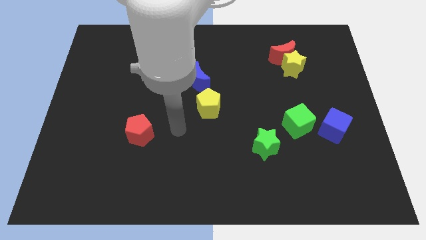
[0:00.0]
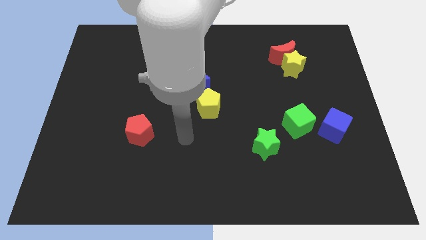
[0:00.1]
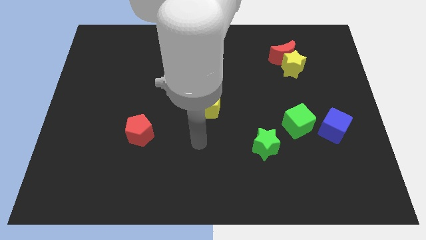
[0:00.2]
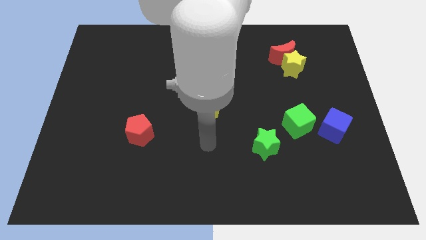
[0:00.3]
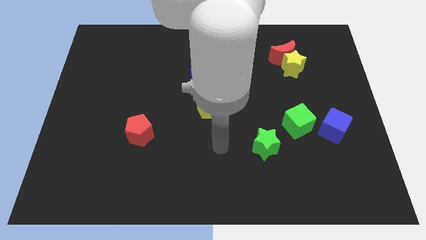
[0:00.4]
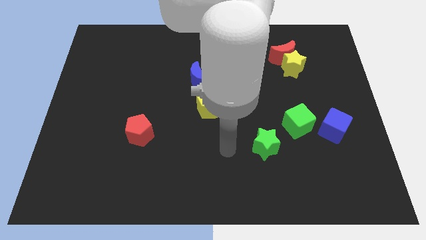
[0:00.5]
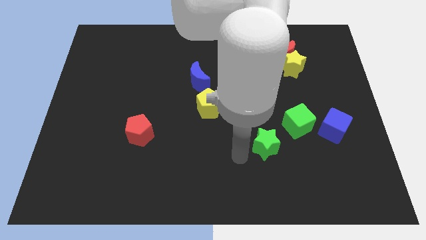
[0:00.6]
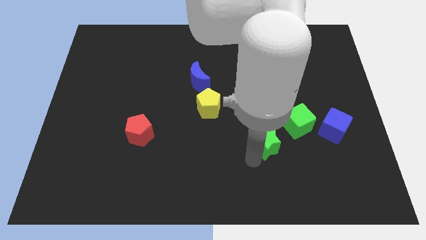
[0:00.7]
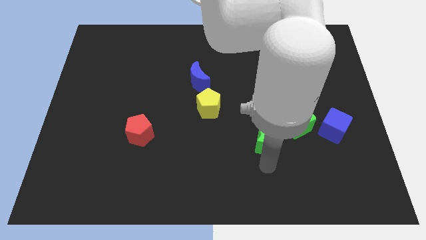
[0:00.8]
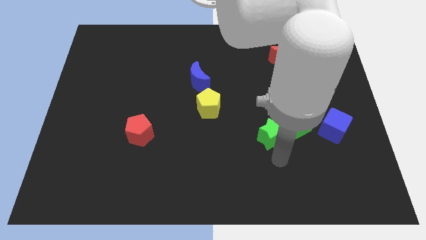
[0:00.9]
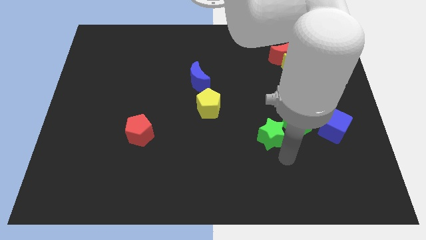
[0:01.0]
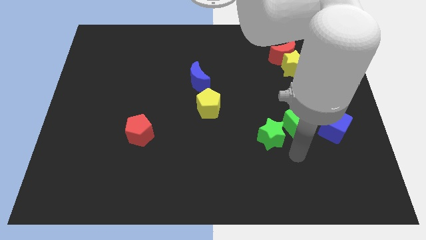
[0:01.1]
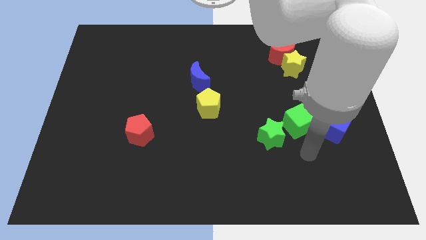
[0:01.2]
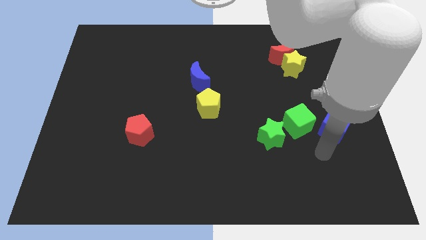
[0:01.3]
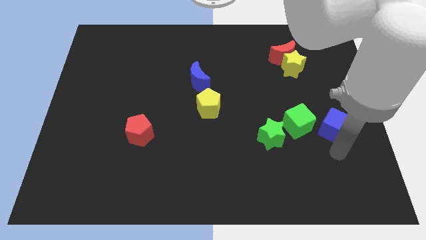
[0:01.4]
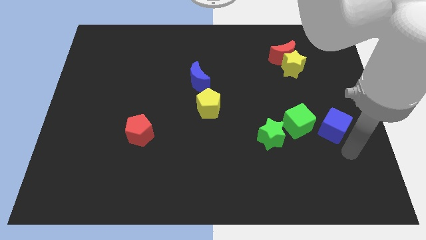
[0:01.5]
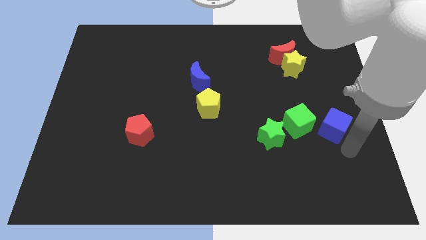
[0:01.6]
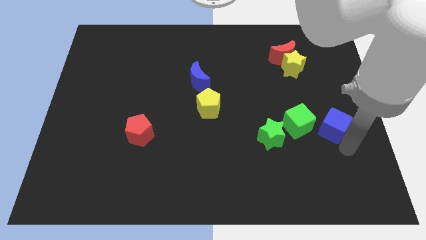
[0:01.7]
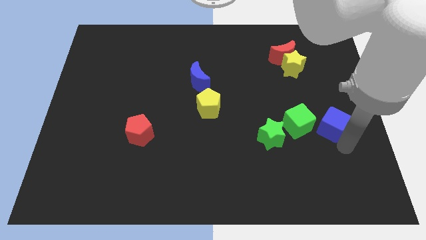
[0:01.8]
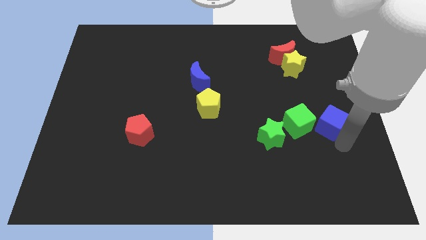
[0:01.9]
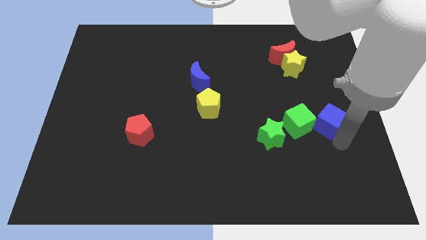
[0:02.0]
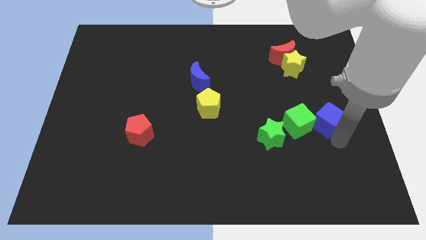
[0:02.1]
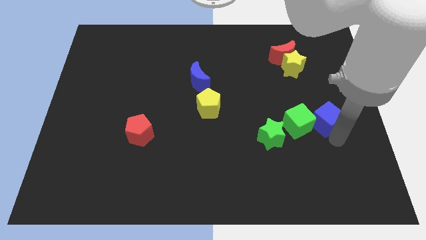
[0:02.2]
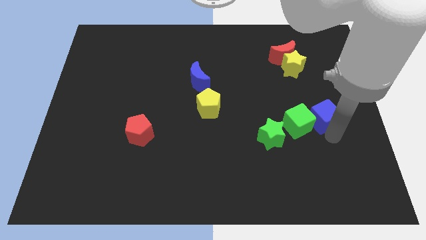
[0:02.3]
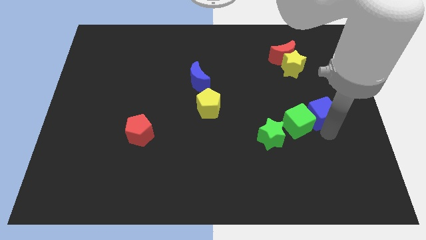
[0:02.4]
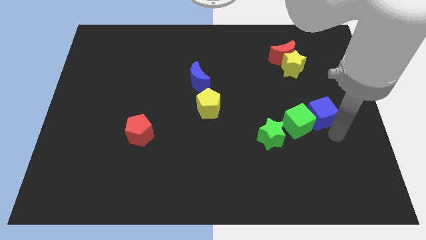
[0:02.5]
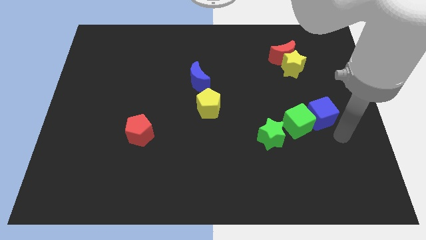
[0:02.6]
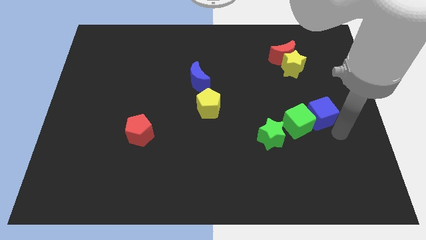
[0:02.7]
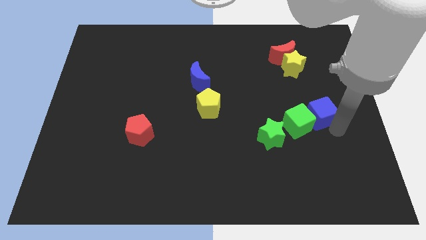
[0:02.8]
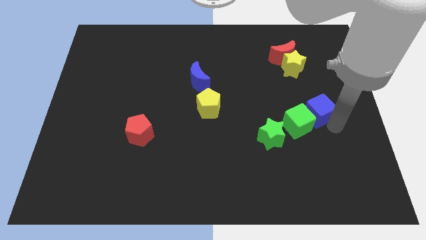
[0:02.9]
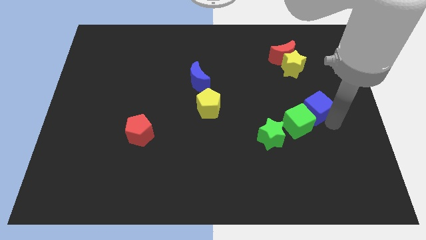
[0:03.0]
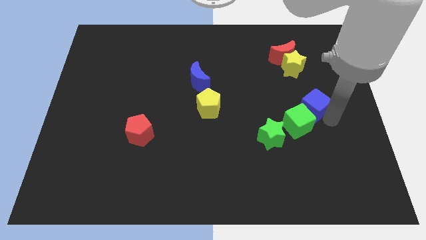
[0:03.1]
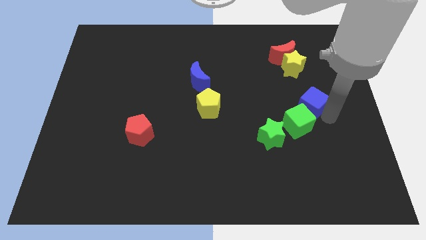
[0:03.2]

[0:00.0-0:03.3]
slide the blue cube upwards and then left a little bit

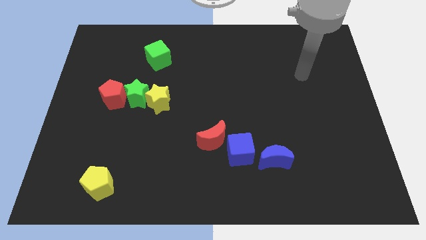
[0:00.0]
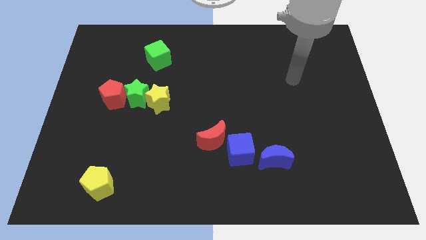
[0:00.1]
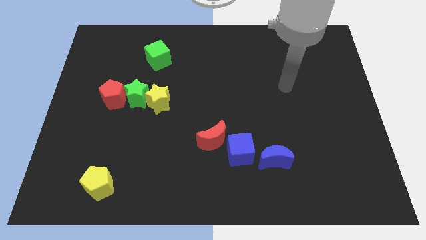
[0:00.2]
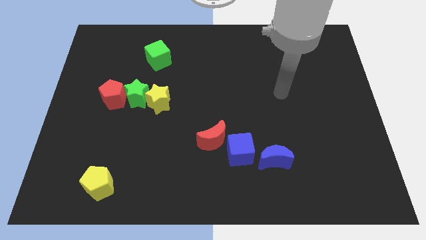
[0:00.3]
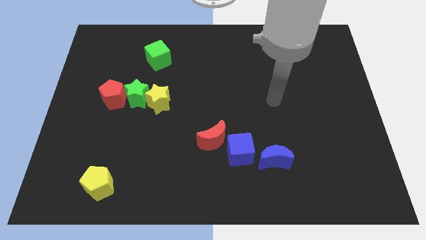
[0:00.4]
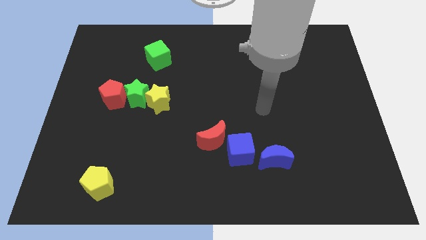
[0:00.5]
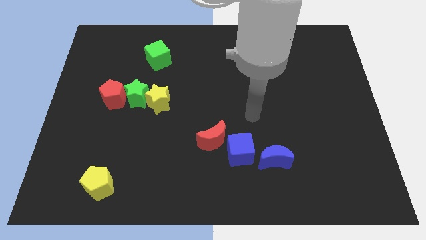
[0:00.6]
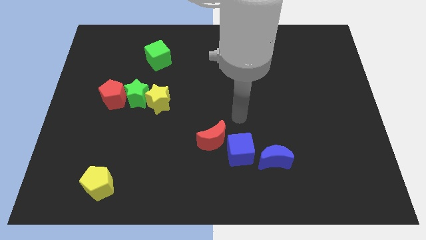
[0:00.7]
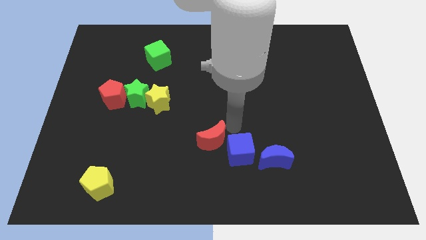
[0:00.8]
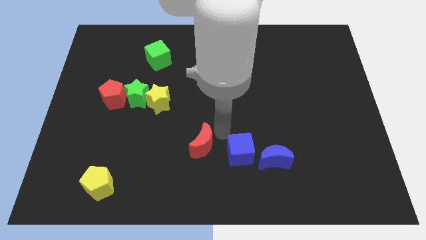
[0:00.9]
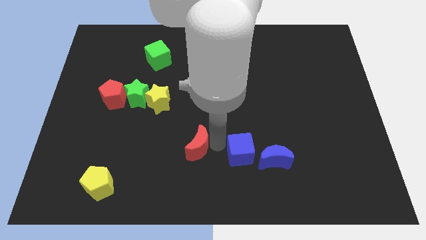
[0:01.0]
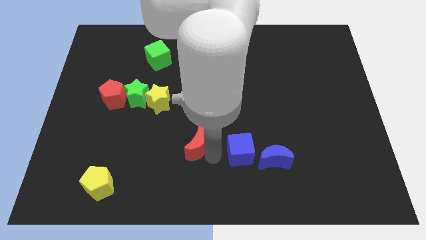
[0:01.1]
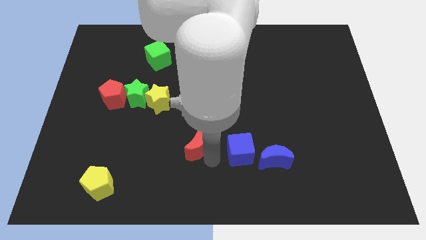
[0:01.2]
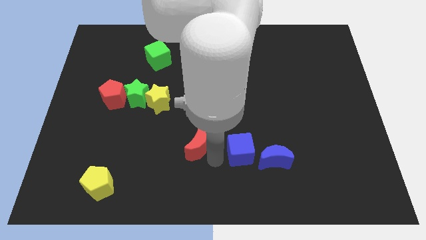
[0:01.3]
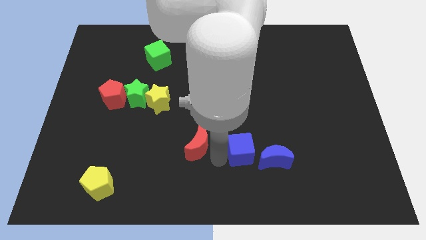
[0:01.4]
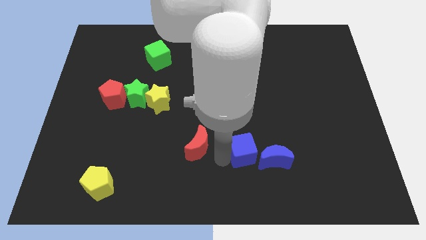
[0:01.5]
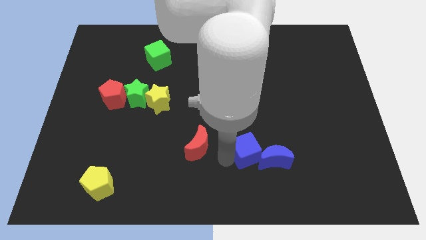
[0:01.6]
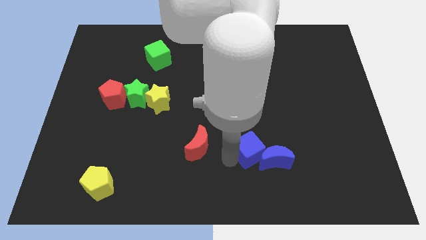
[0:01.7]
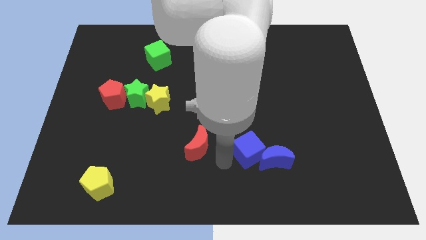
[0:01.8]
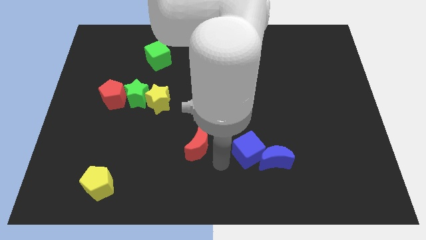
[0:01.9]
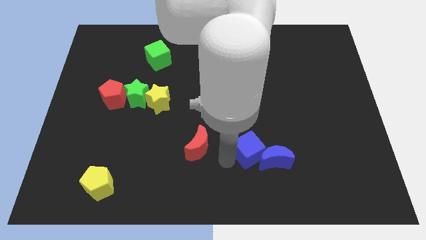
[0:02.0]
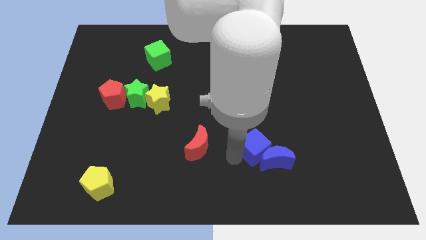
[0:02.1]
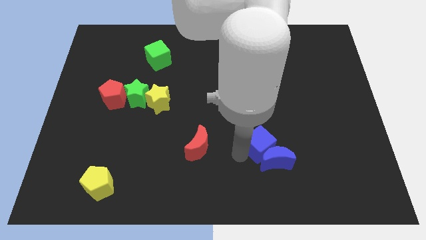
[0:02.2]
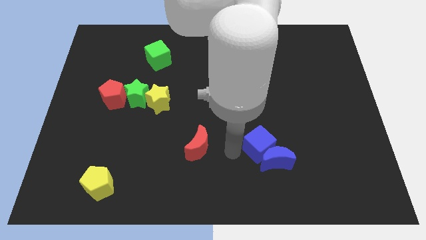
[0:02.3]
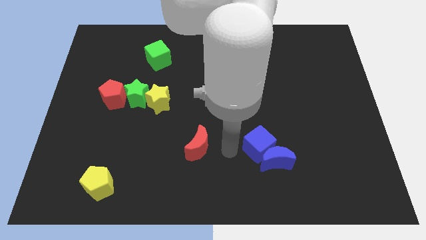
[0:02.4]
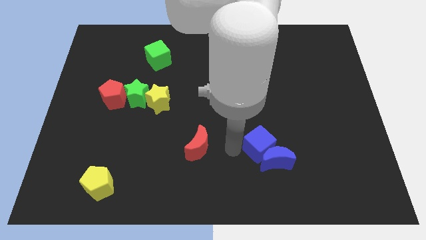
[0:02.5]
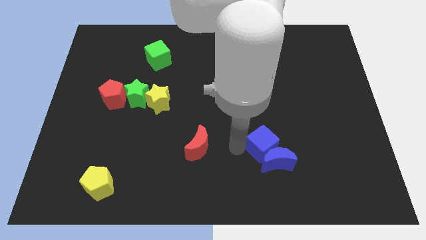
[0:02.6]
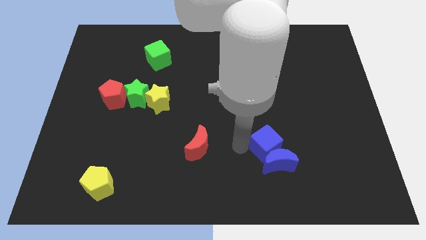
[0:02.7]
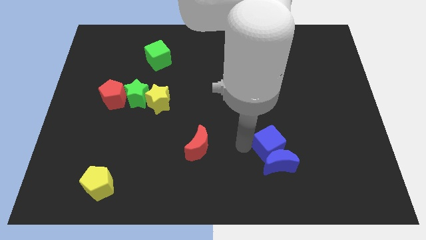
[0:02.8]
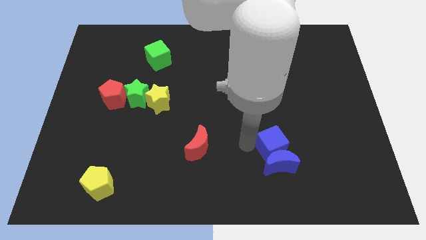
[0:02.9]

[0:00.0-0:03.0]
slightly push the blue cube to the right

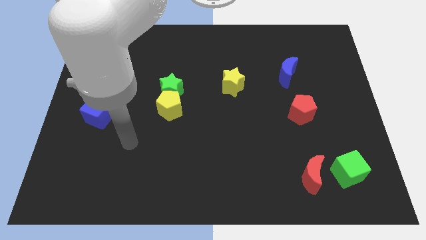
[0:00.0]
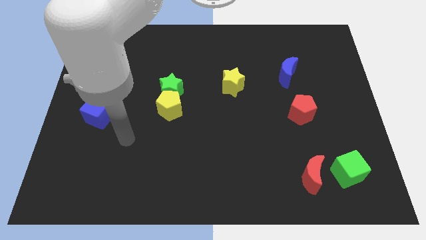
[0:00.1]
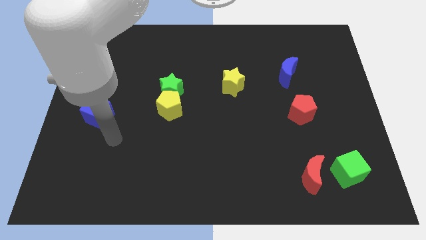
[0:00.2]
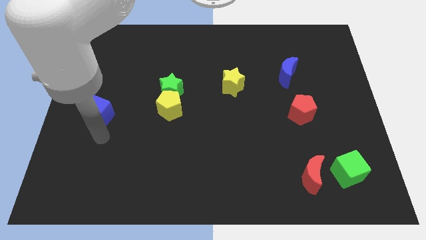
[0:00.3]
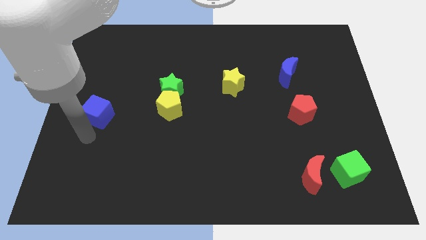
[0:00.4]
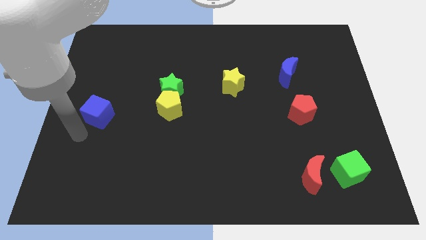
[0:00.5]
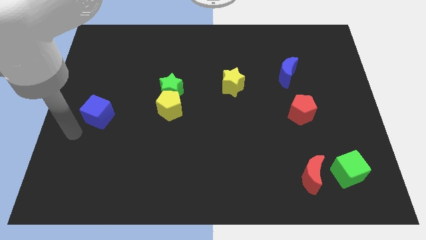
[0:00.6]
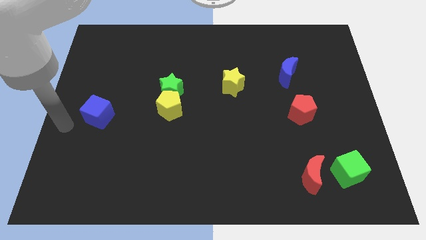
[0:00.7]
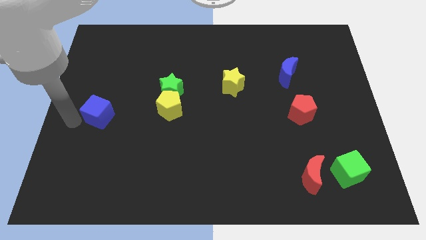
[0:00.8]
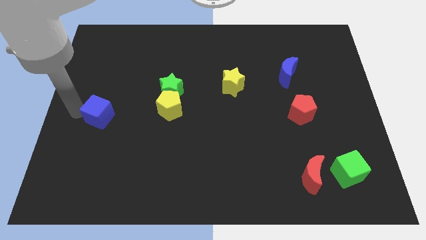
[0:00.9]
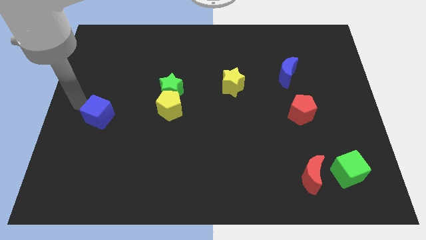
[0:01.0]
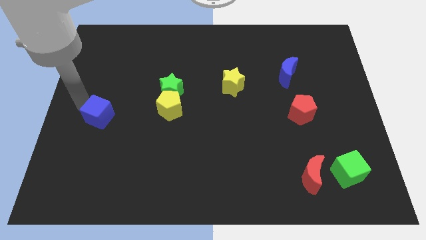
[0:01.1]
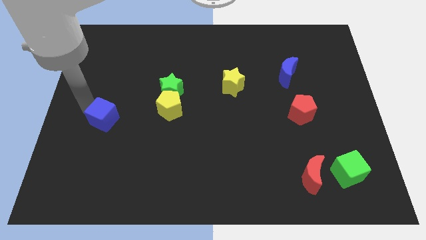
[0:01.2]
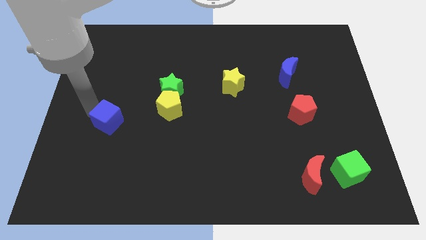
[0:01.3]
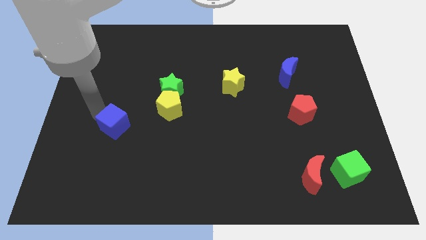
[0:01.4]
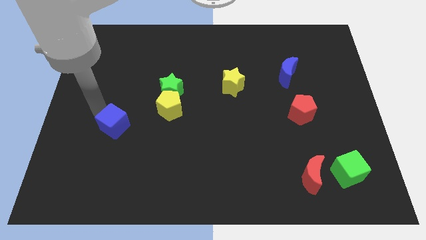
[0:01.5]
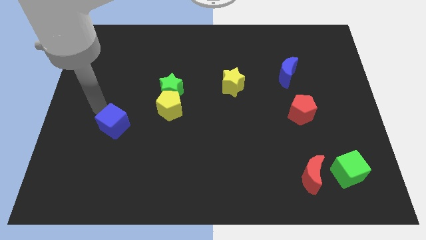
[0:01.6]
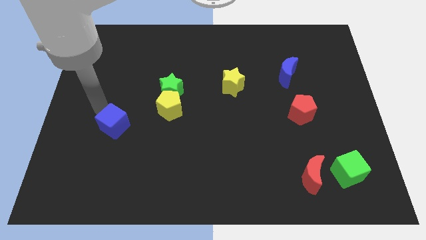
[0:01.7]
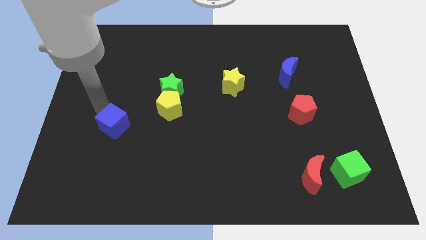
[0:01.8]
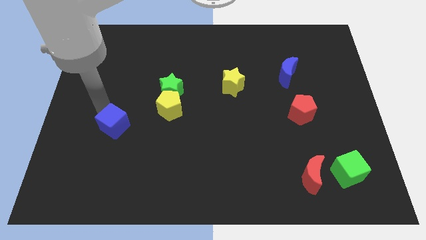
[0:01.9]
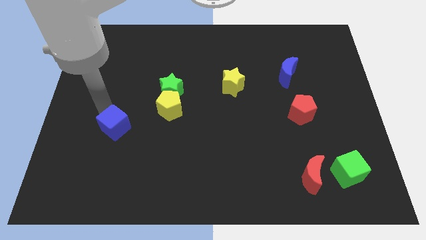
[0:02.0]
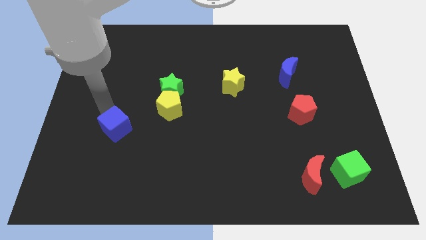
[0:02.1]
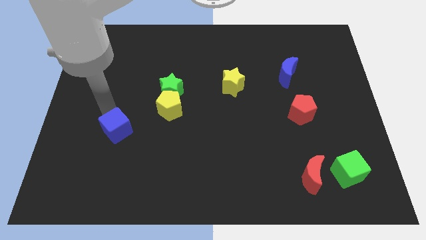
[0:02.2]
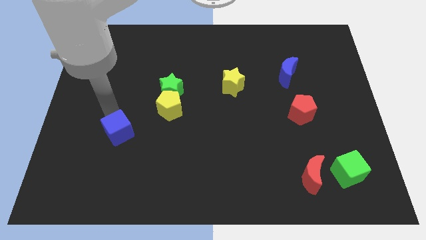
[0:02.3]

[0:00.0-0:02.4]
push the blue cube somewhat diagonally downwards and right
